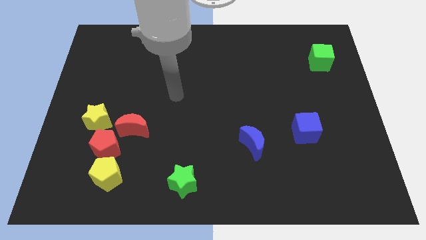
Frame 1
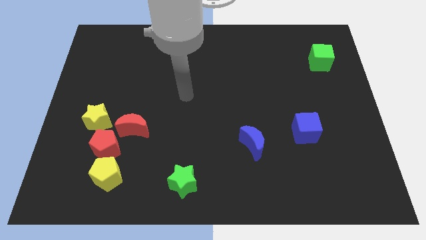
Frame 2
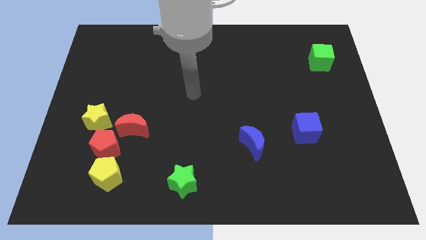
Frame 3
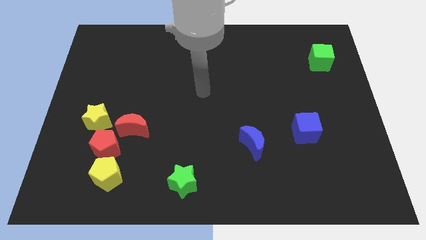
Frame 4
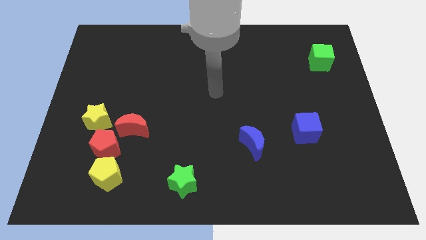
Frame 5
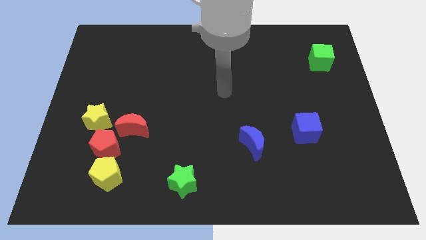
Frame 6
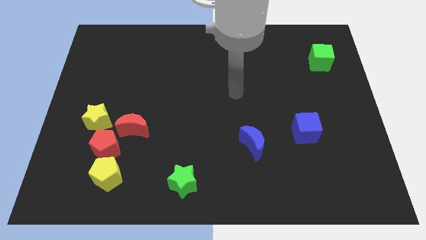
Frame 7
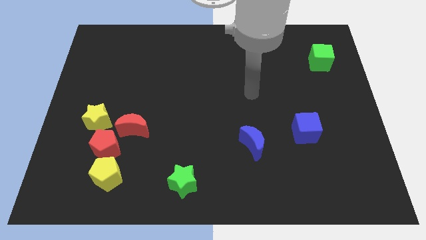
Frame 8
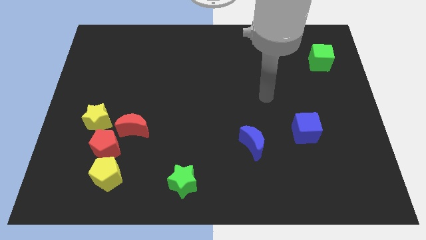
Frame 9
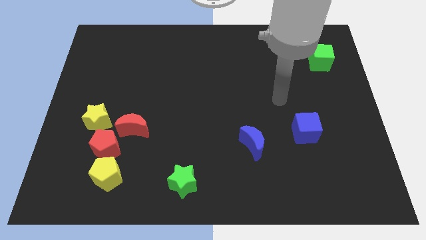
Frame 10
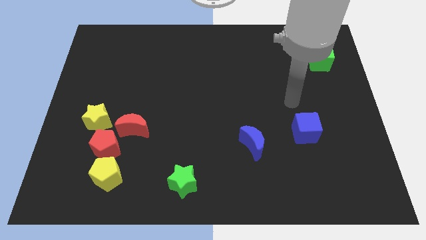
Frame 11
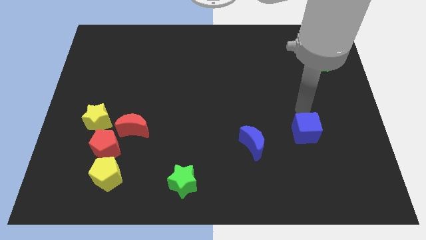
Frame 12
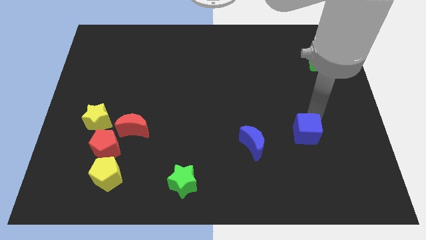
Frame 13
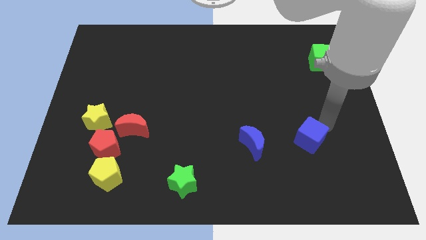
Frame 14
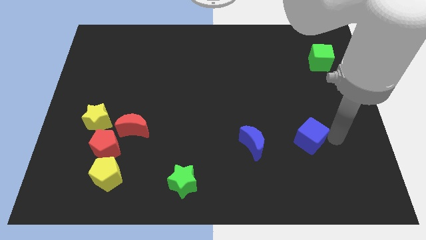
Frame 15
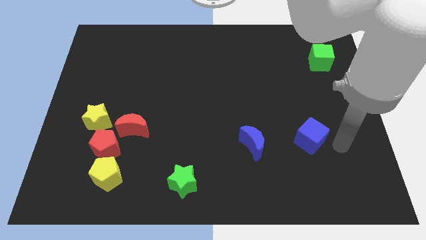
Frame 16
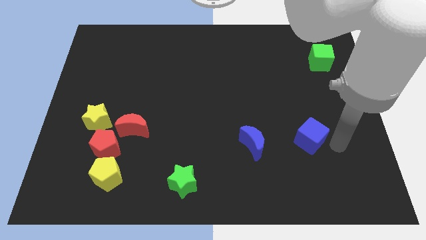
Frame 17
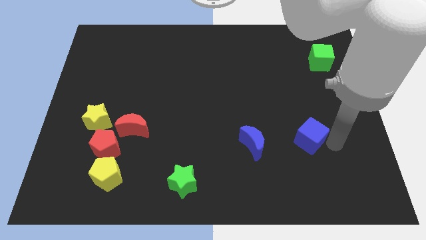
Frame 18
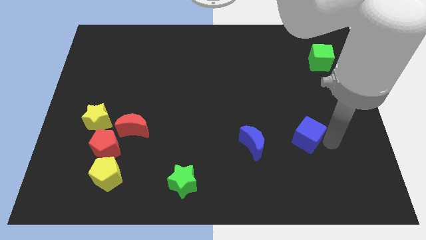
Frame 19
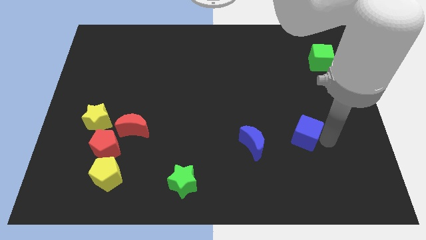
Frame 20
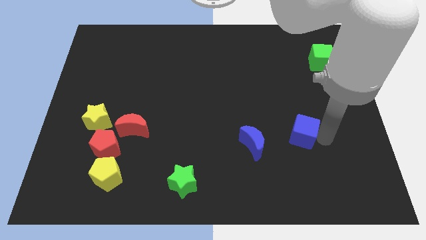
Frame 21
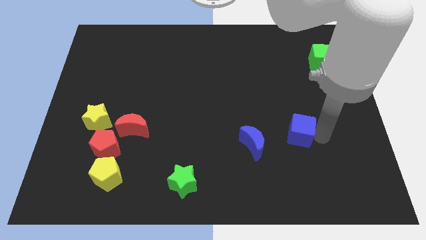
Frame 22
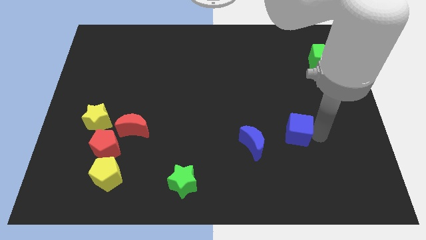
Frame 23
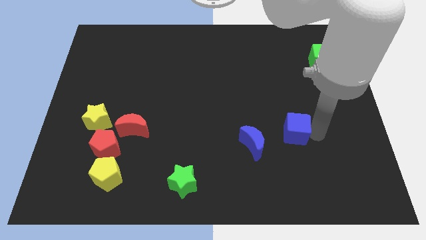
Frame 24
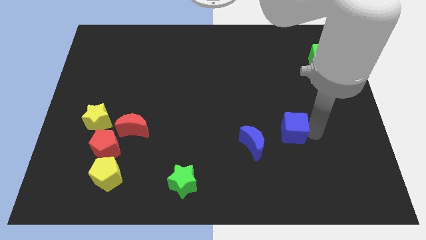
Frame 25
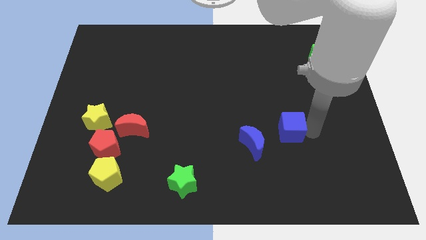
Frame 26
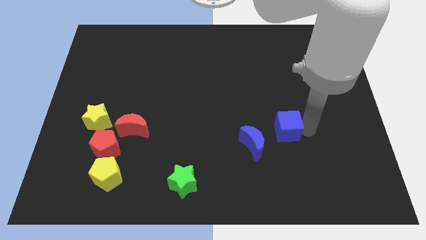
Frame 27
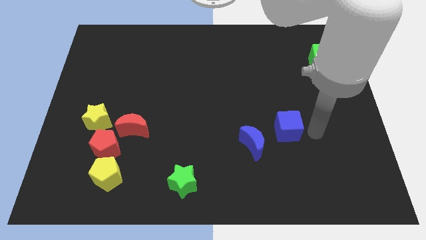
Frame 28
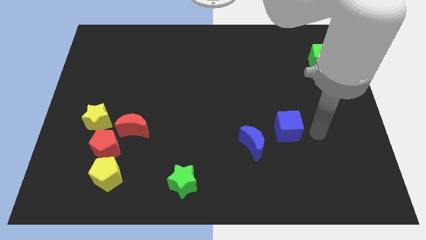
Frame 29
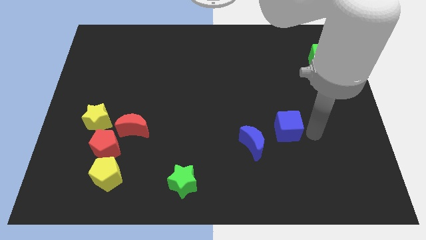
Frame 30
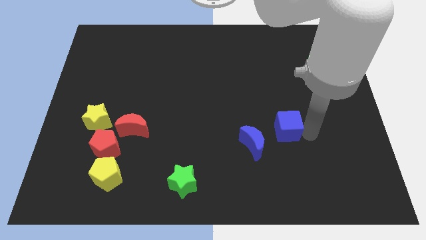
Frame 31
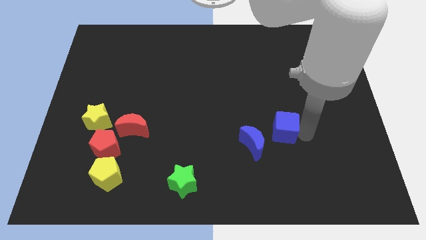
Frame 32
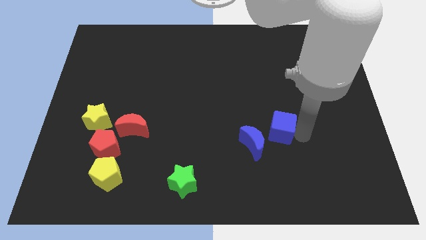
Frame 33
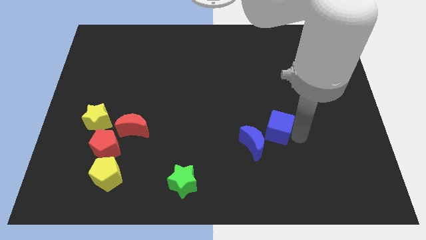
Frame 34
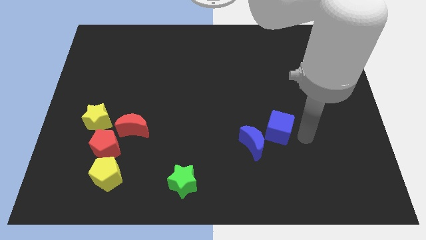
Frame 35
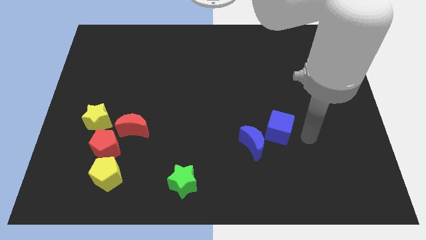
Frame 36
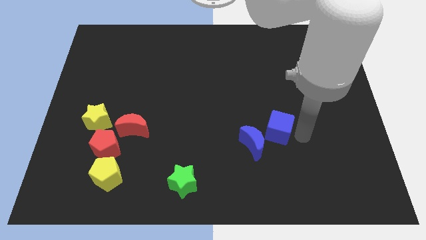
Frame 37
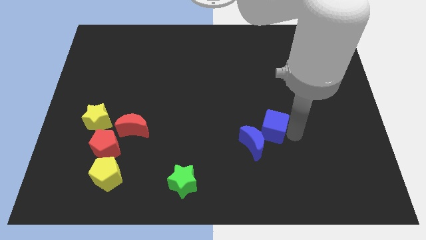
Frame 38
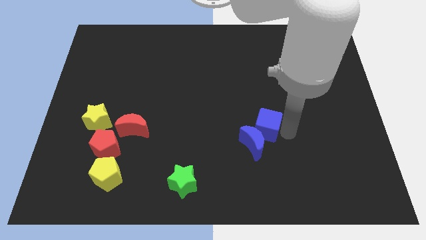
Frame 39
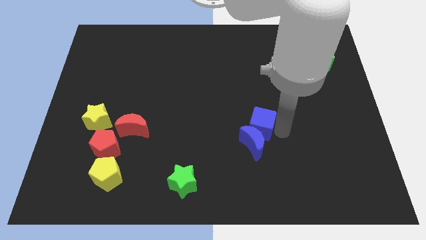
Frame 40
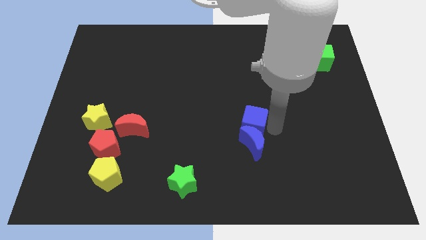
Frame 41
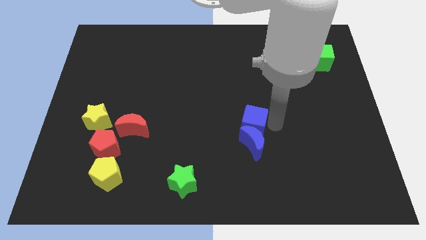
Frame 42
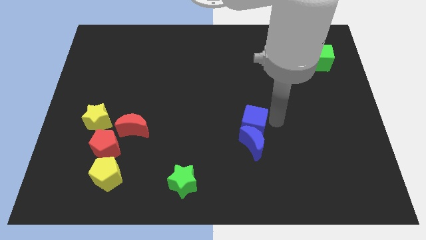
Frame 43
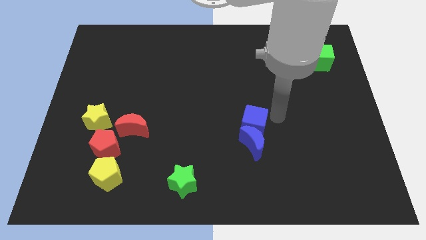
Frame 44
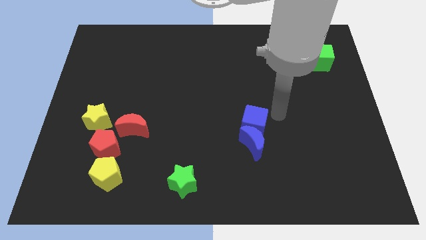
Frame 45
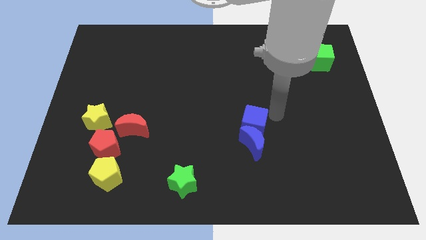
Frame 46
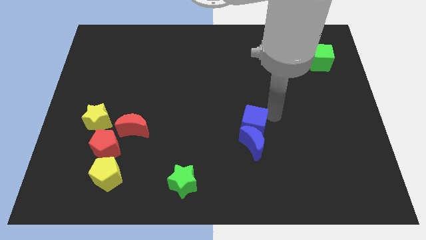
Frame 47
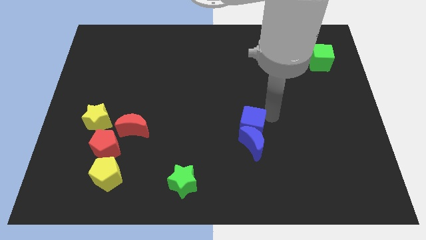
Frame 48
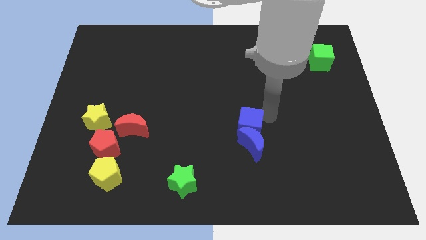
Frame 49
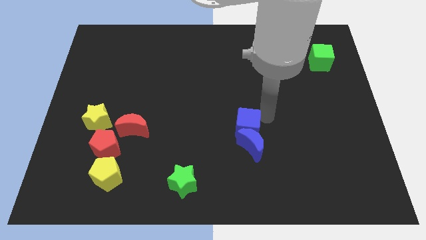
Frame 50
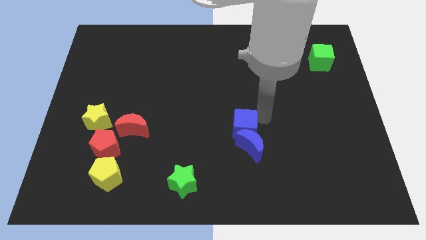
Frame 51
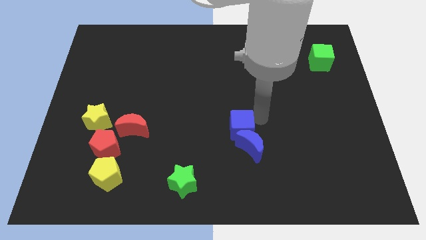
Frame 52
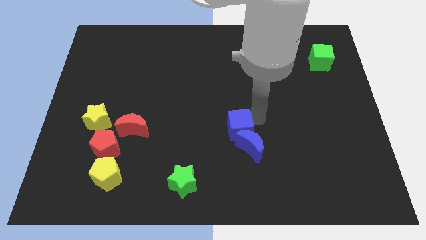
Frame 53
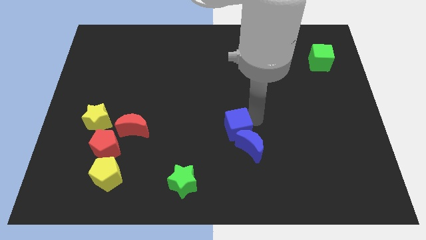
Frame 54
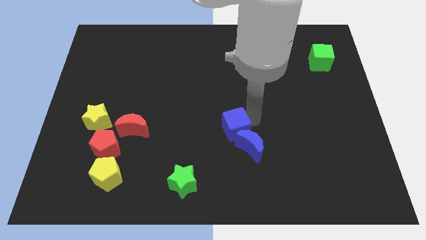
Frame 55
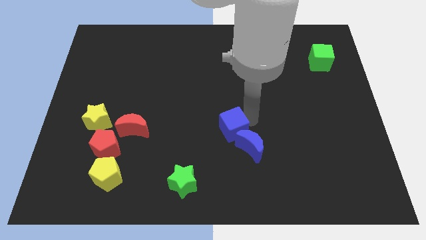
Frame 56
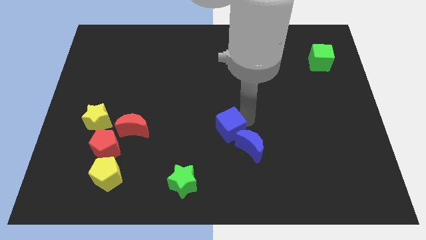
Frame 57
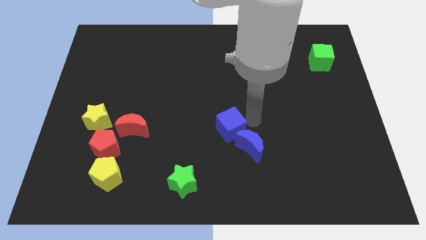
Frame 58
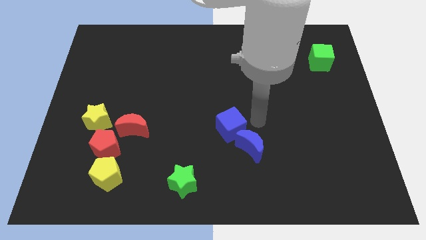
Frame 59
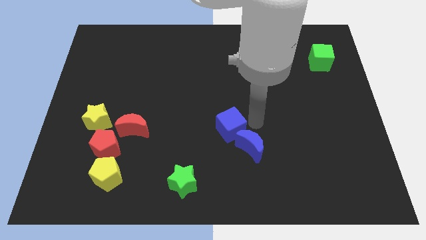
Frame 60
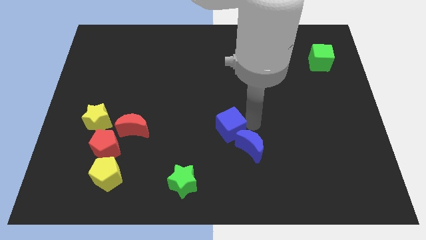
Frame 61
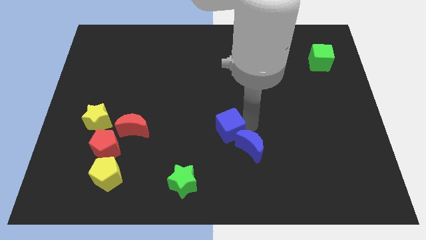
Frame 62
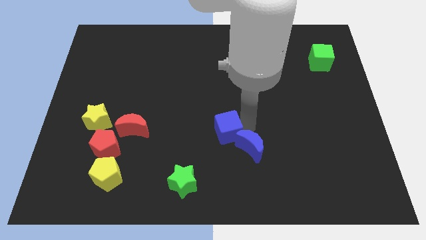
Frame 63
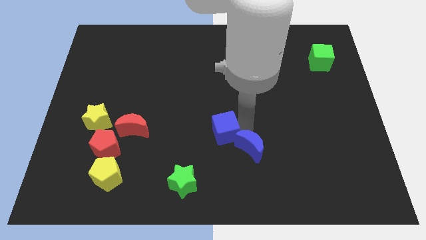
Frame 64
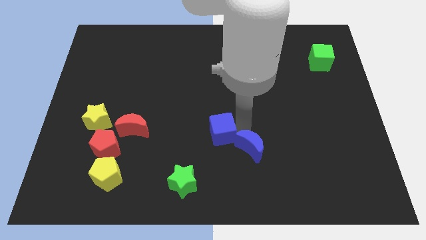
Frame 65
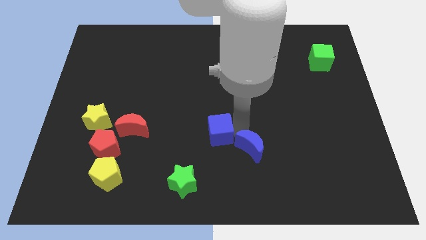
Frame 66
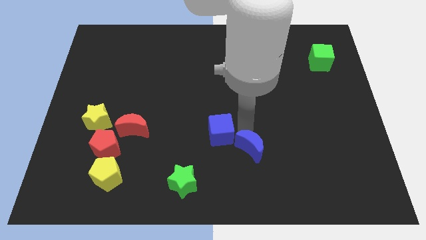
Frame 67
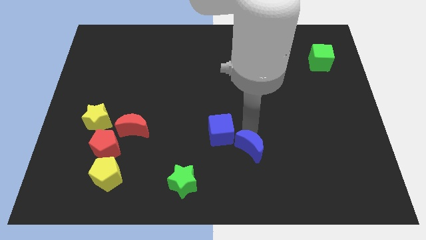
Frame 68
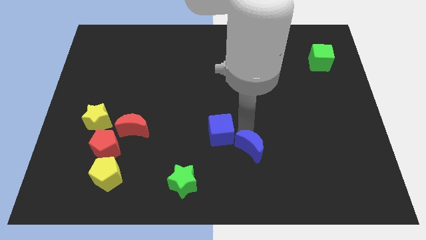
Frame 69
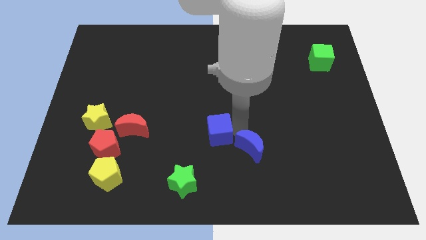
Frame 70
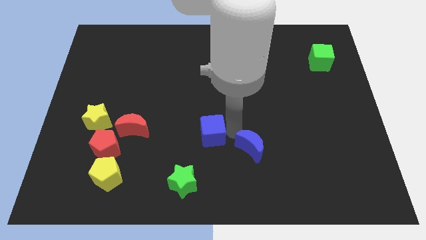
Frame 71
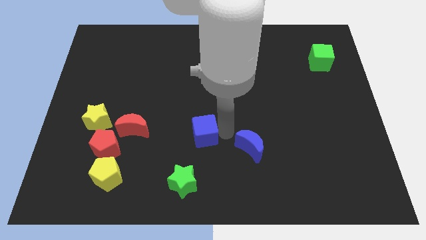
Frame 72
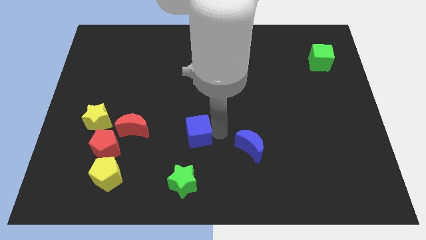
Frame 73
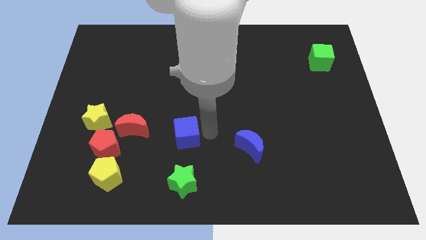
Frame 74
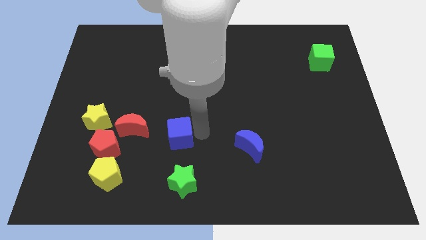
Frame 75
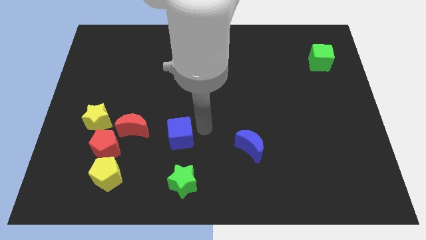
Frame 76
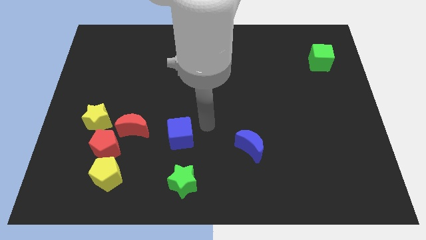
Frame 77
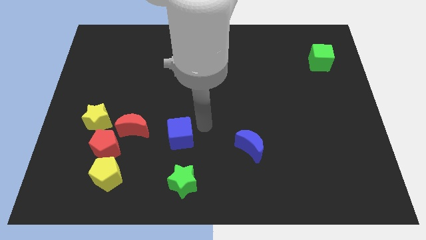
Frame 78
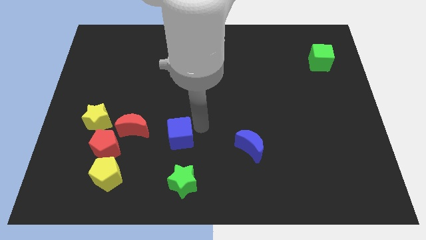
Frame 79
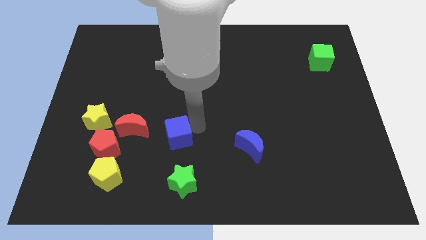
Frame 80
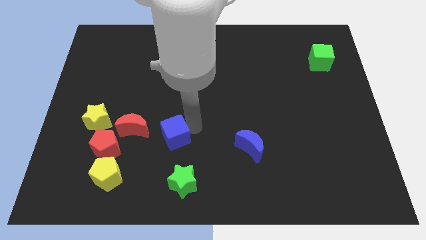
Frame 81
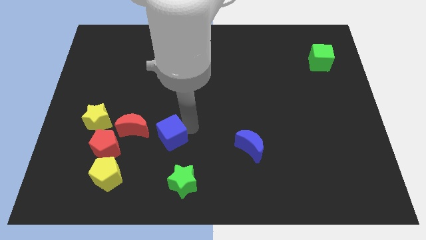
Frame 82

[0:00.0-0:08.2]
push the blue cube to the bottom right of the red moon
